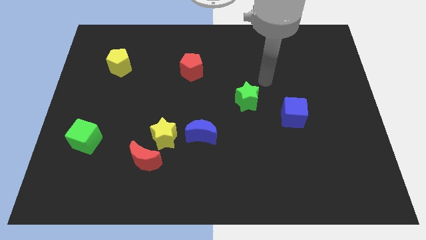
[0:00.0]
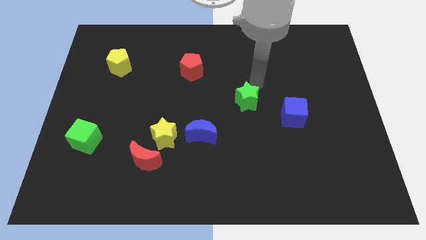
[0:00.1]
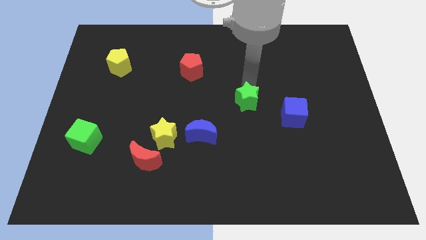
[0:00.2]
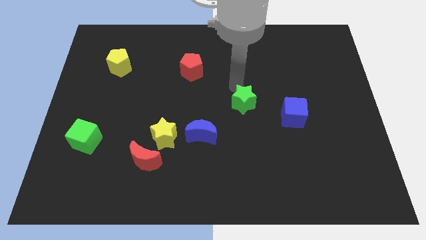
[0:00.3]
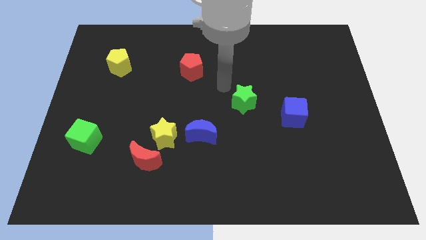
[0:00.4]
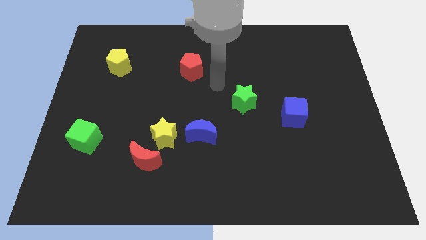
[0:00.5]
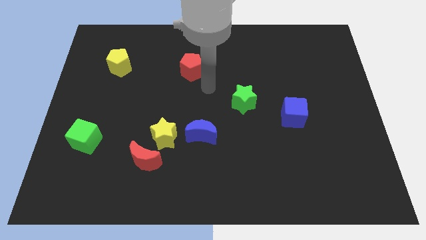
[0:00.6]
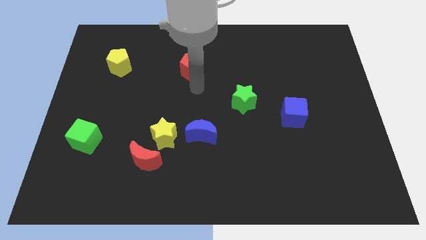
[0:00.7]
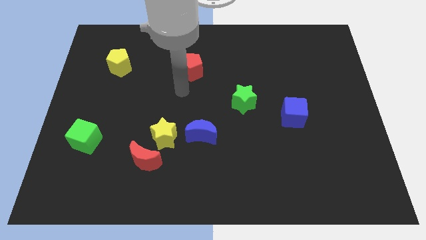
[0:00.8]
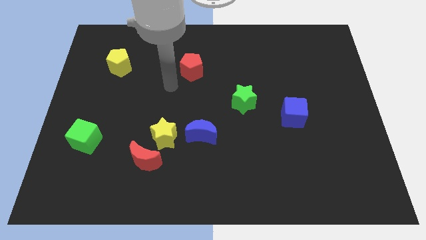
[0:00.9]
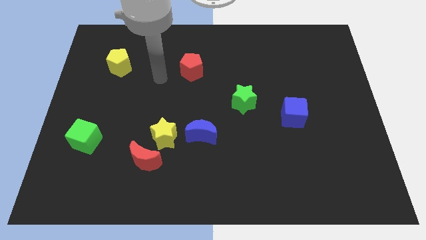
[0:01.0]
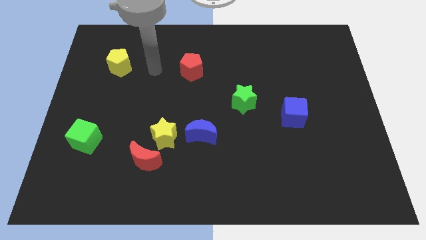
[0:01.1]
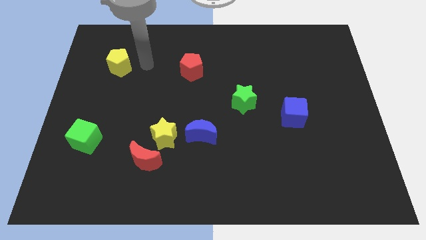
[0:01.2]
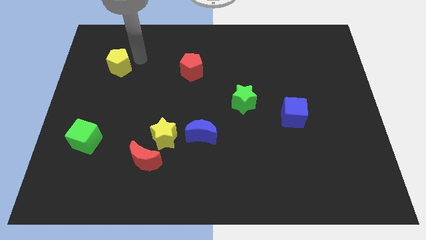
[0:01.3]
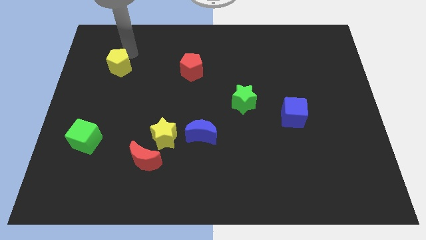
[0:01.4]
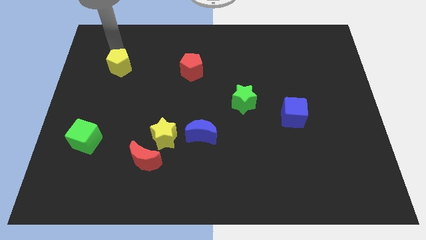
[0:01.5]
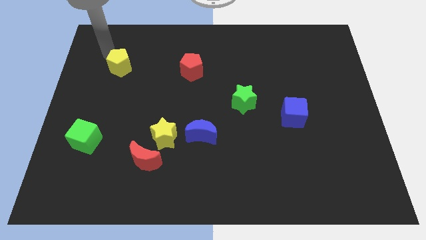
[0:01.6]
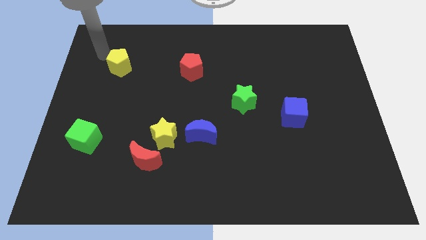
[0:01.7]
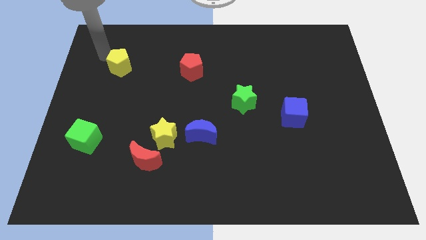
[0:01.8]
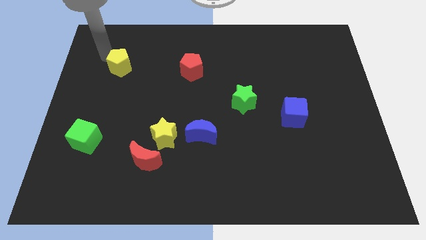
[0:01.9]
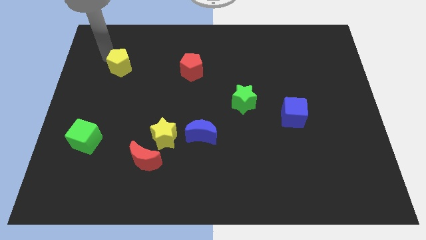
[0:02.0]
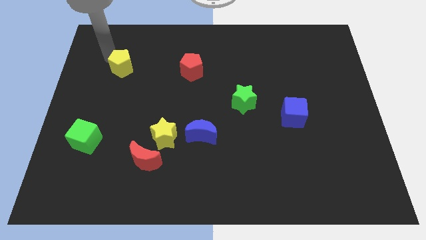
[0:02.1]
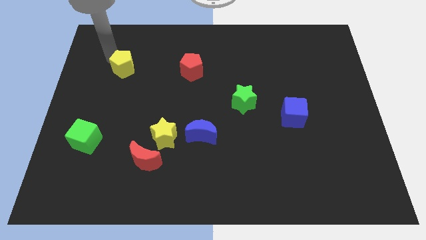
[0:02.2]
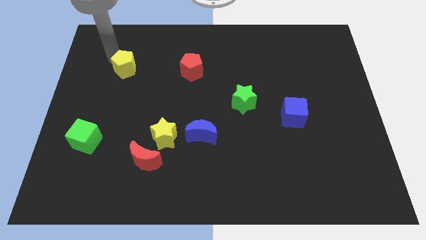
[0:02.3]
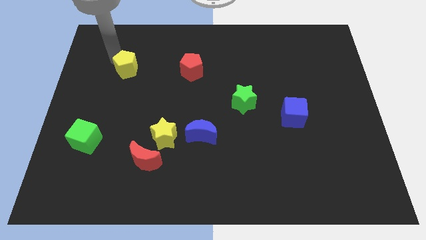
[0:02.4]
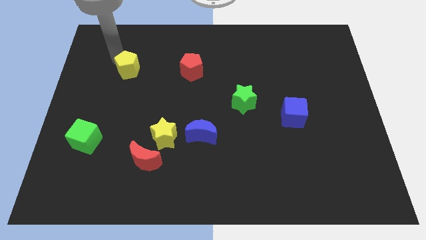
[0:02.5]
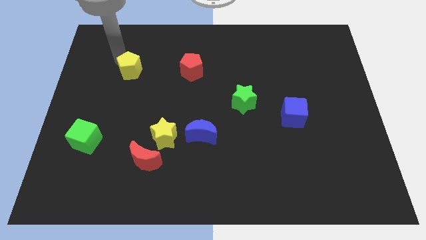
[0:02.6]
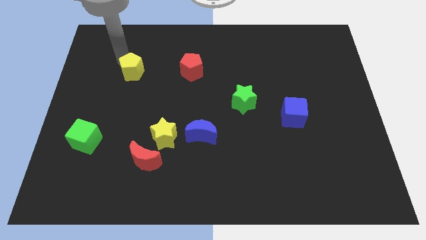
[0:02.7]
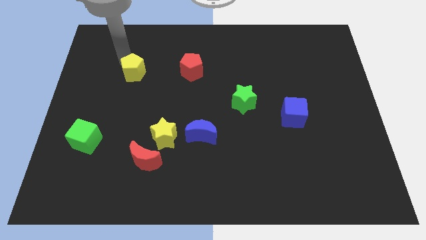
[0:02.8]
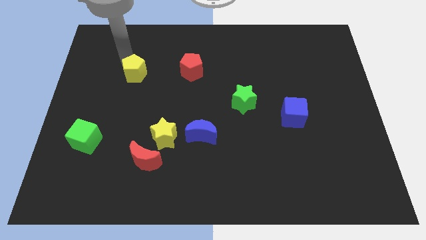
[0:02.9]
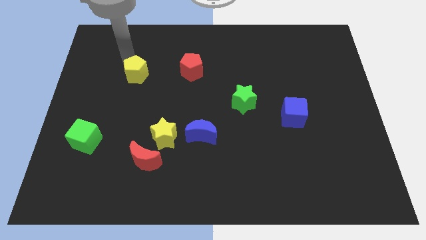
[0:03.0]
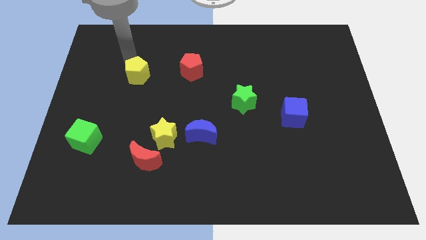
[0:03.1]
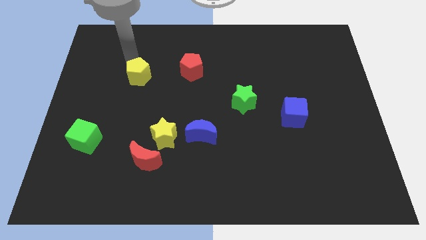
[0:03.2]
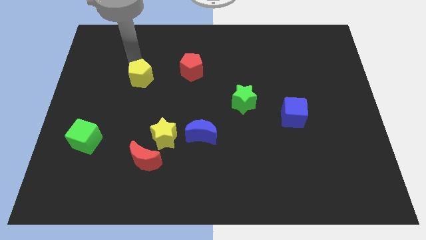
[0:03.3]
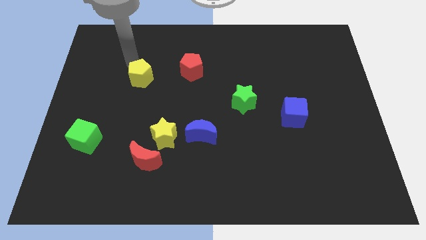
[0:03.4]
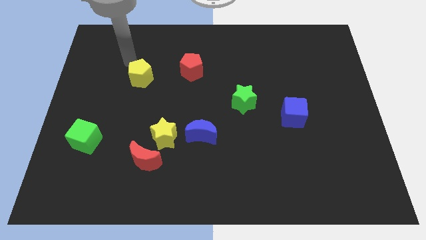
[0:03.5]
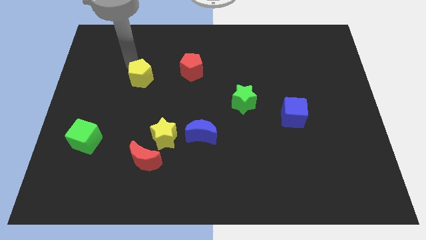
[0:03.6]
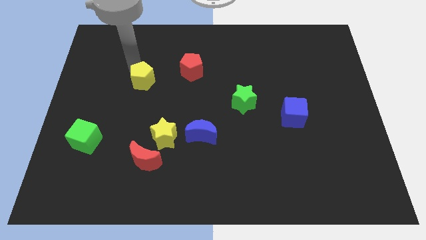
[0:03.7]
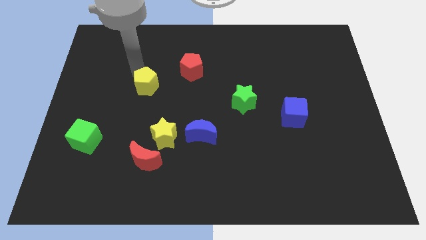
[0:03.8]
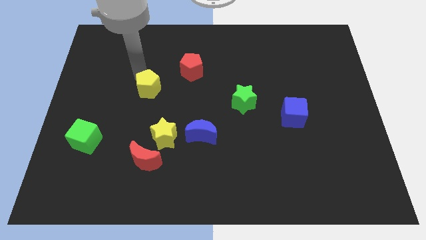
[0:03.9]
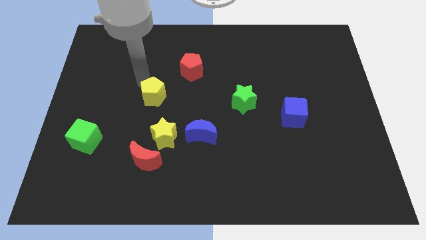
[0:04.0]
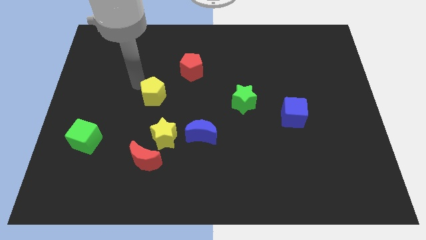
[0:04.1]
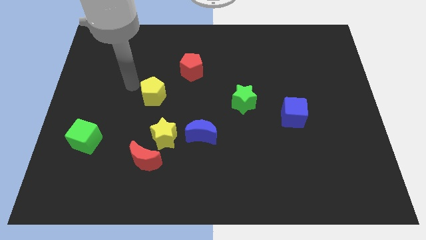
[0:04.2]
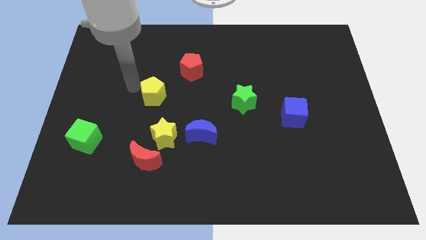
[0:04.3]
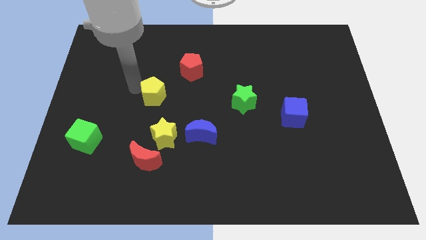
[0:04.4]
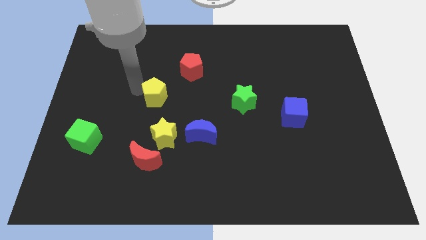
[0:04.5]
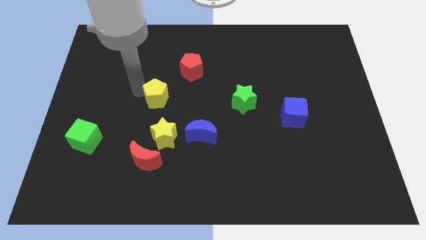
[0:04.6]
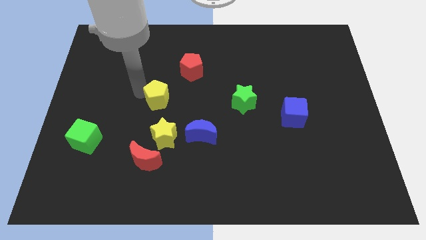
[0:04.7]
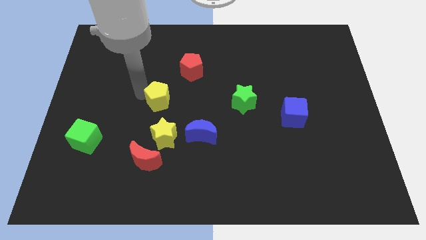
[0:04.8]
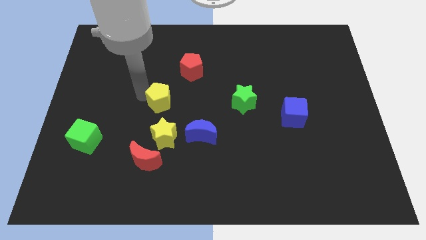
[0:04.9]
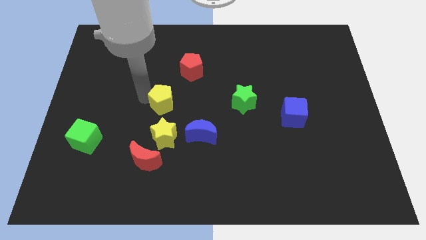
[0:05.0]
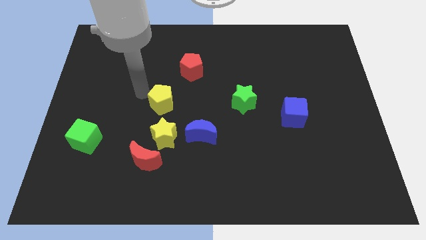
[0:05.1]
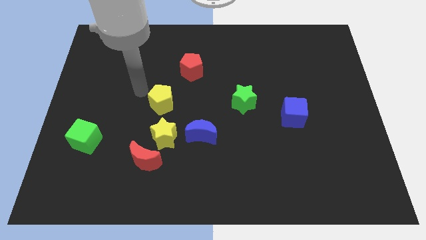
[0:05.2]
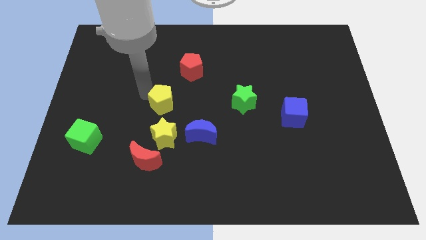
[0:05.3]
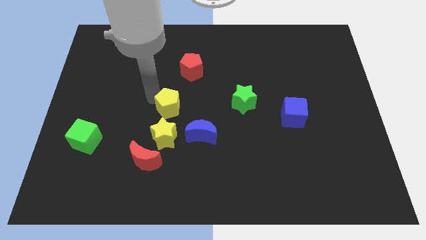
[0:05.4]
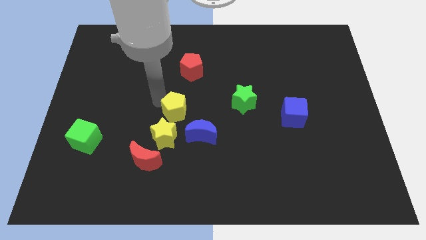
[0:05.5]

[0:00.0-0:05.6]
move the yellow pentagon to the top right side of the yellow star

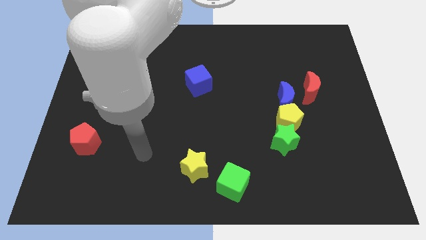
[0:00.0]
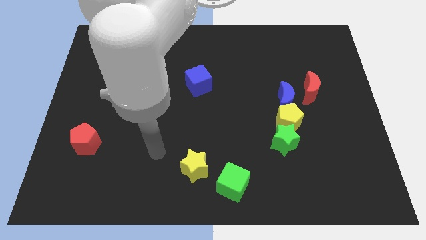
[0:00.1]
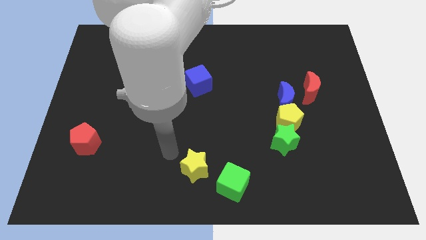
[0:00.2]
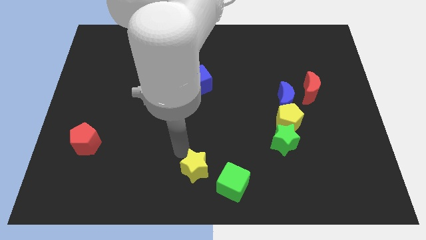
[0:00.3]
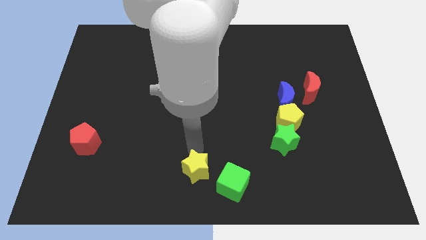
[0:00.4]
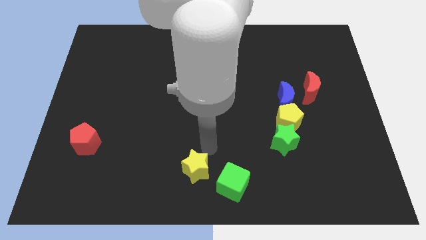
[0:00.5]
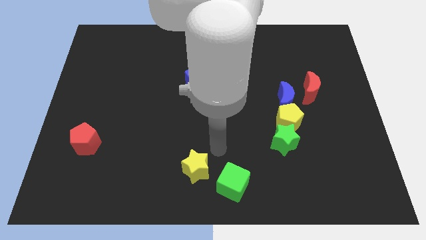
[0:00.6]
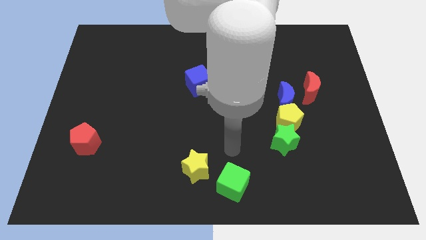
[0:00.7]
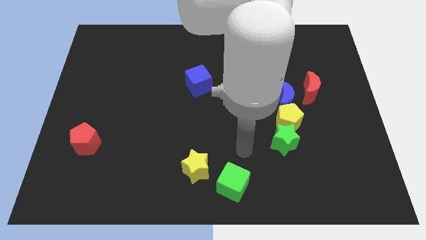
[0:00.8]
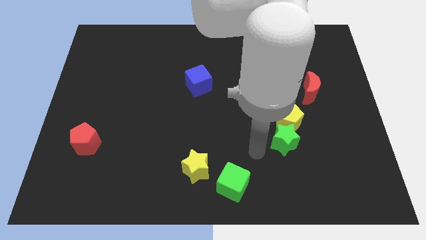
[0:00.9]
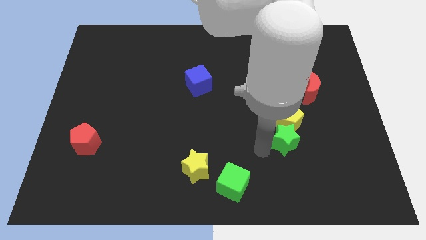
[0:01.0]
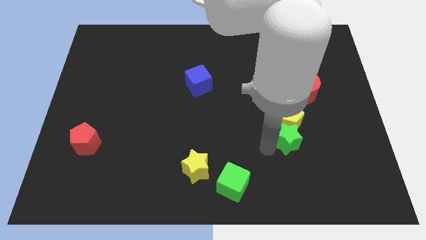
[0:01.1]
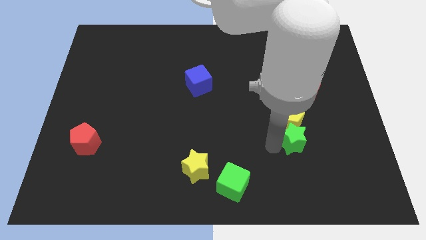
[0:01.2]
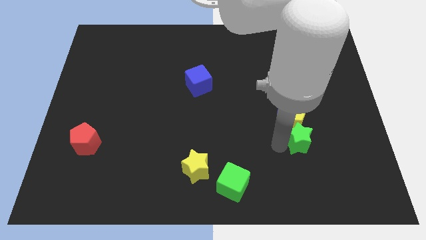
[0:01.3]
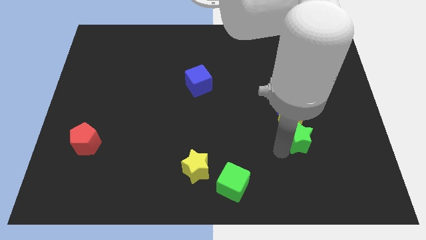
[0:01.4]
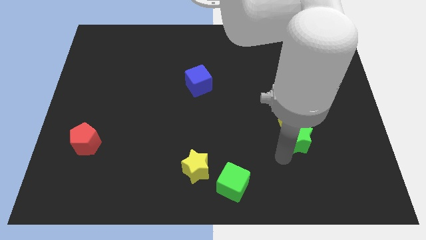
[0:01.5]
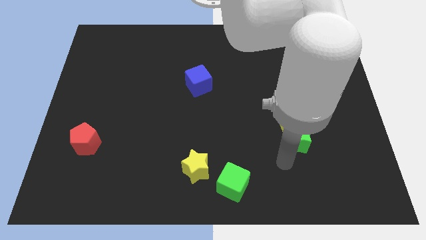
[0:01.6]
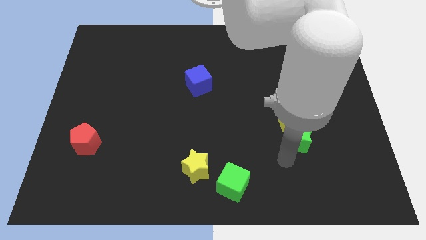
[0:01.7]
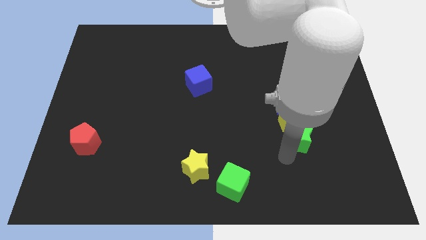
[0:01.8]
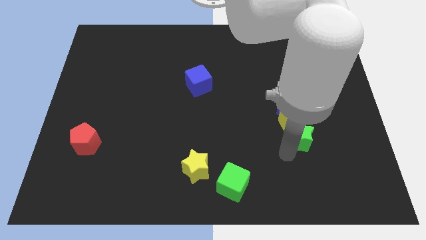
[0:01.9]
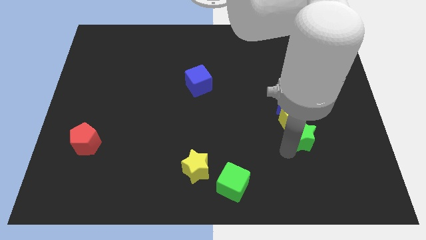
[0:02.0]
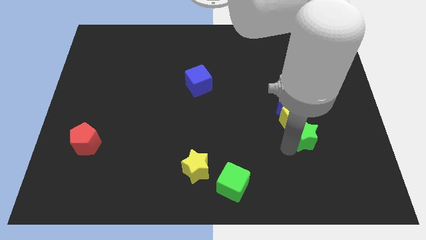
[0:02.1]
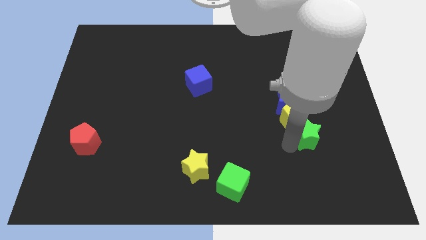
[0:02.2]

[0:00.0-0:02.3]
push the green star diagonally down and to the right of the blue moon
